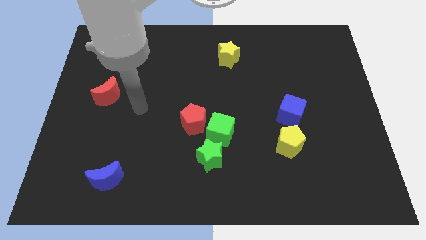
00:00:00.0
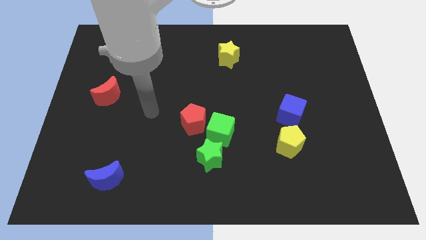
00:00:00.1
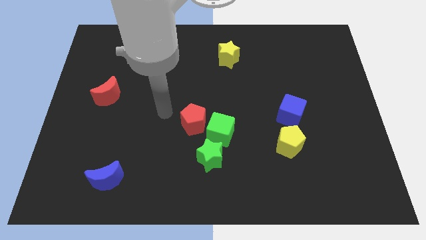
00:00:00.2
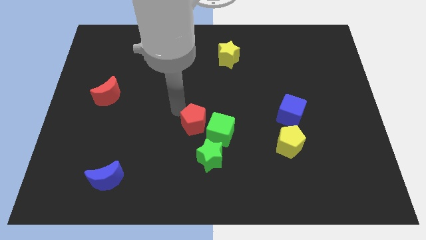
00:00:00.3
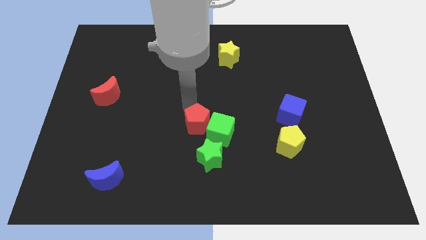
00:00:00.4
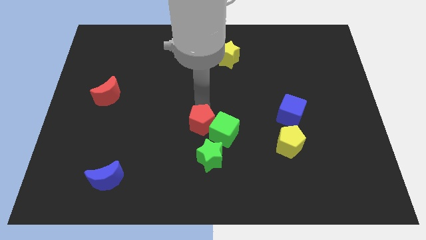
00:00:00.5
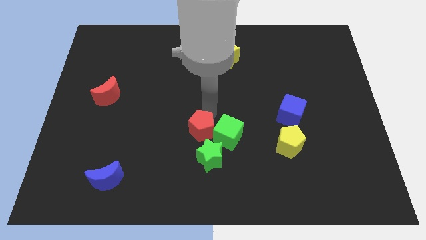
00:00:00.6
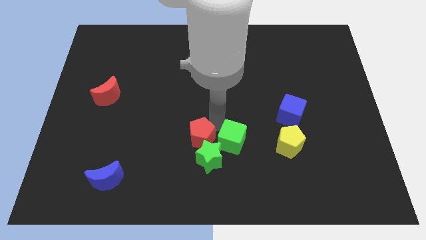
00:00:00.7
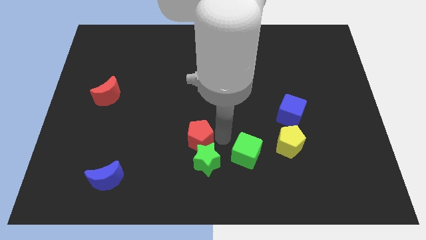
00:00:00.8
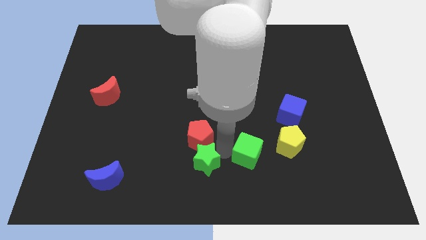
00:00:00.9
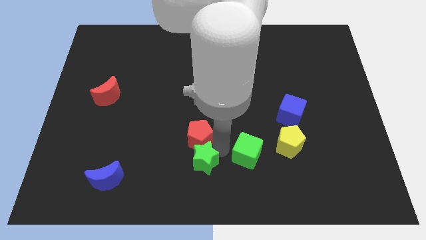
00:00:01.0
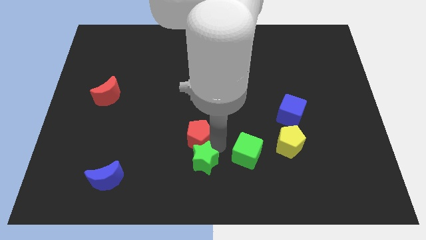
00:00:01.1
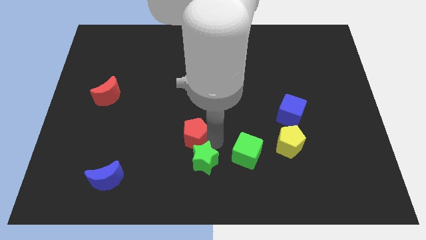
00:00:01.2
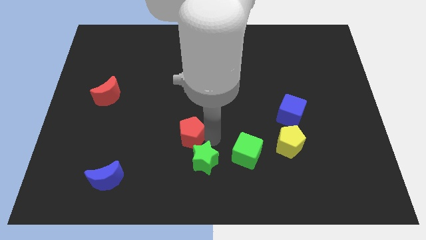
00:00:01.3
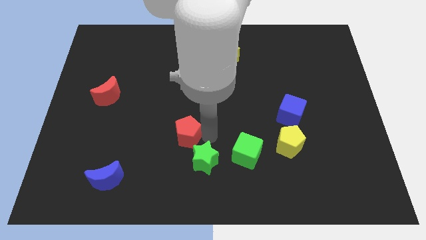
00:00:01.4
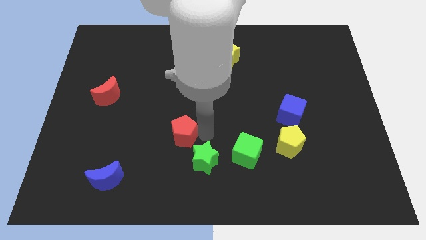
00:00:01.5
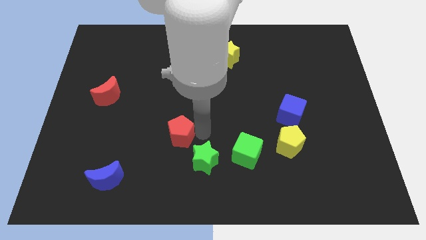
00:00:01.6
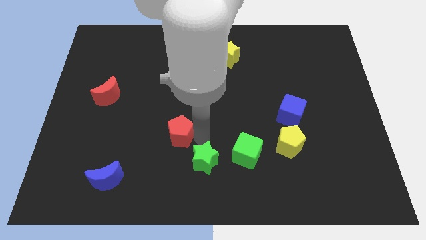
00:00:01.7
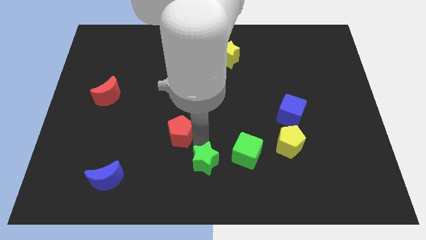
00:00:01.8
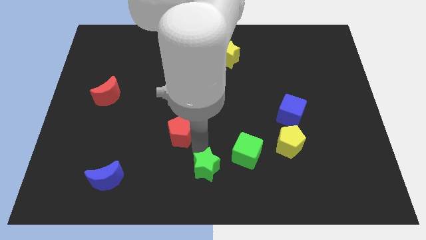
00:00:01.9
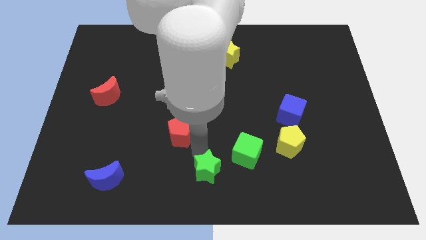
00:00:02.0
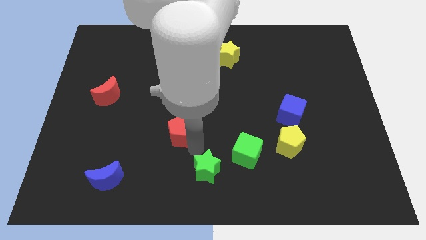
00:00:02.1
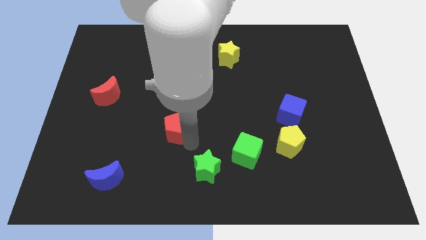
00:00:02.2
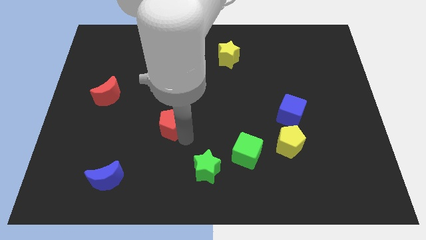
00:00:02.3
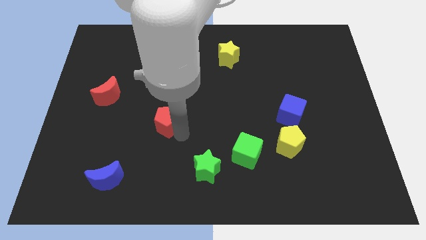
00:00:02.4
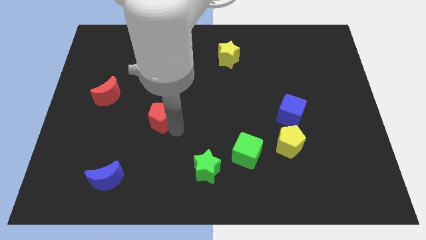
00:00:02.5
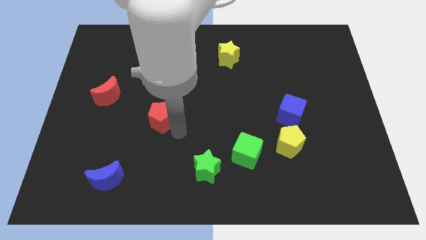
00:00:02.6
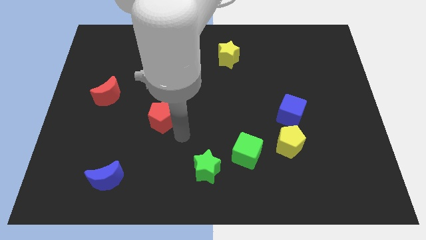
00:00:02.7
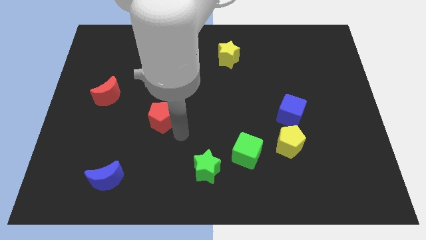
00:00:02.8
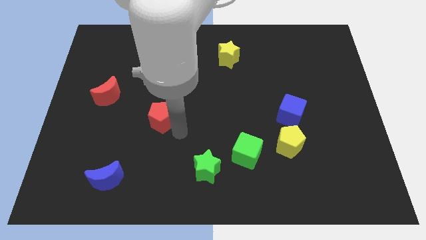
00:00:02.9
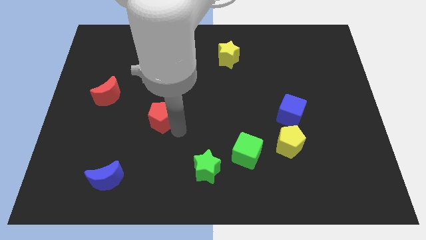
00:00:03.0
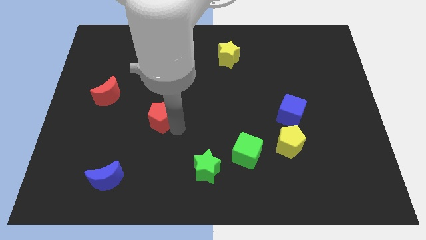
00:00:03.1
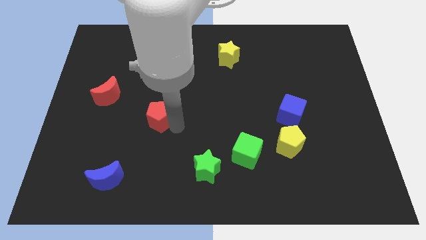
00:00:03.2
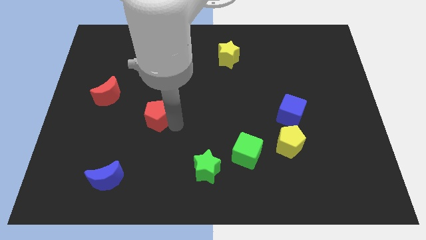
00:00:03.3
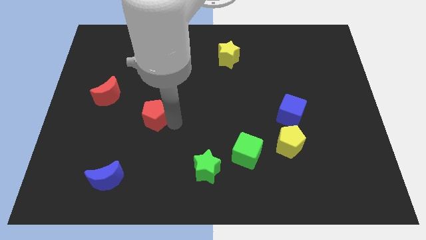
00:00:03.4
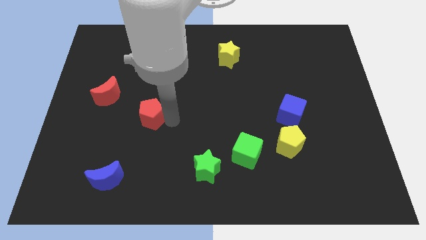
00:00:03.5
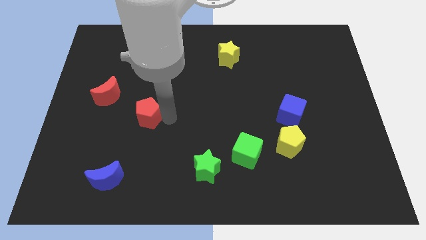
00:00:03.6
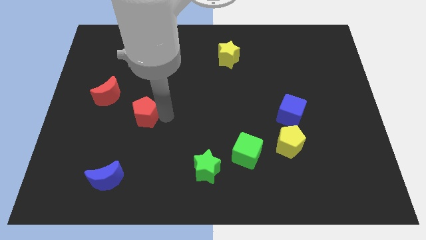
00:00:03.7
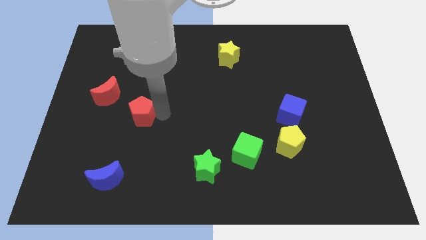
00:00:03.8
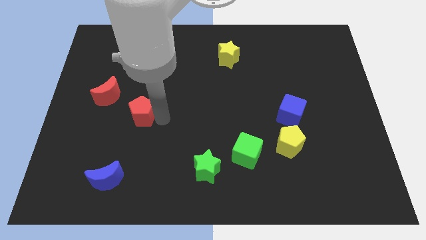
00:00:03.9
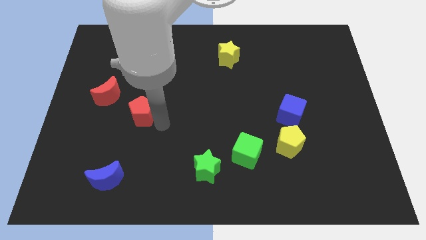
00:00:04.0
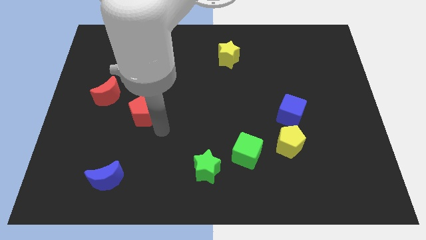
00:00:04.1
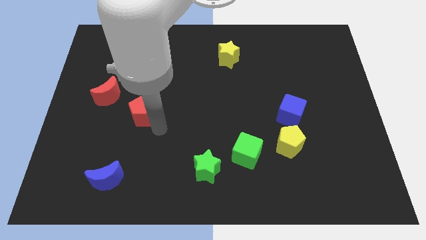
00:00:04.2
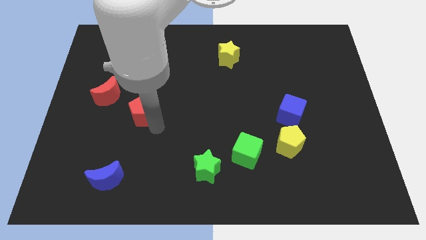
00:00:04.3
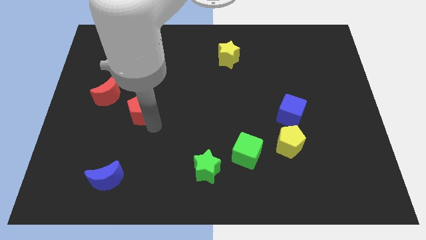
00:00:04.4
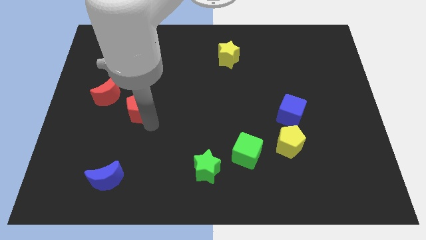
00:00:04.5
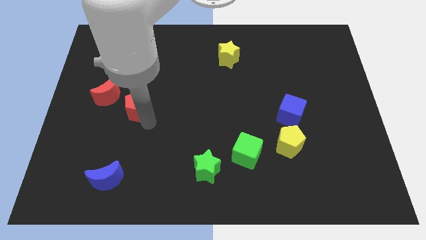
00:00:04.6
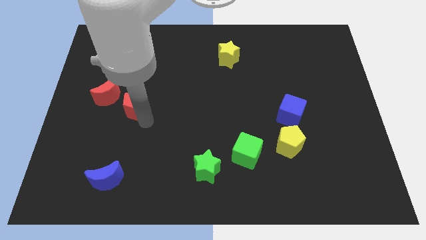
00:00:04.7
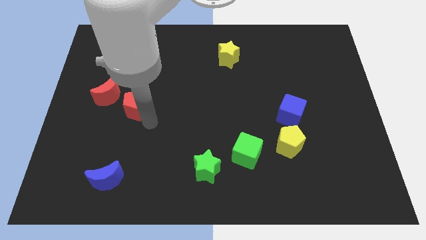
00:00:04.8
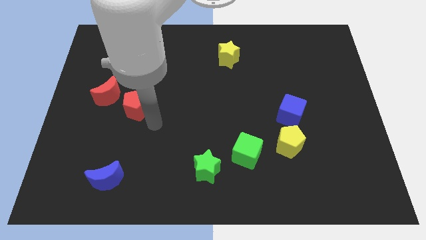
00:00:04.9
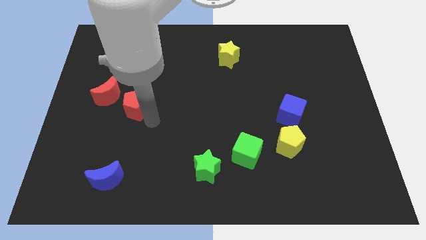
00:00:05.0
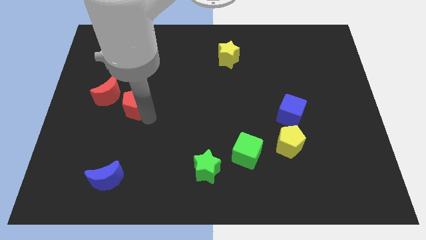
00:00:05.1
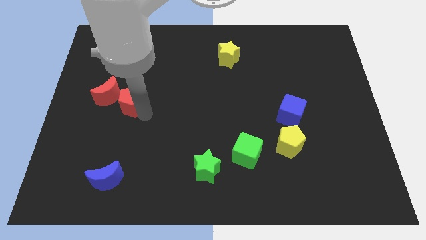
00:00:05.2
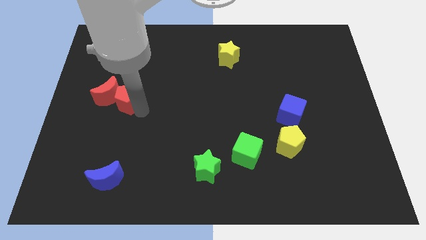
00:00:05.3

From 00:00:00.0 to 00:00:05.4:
slide the red pentagon next to the red moon

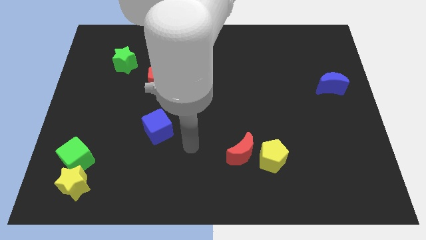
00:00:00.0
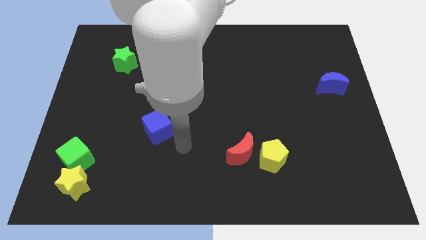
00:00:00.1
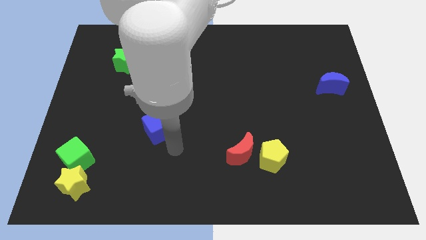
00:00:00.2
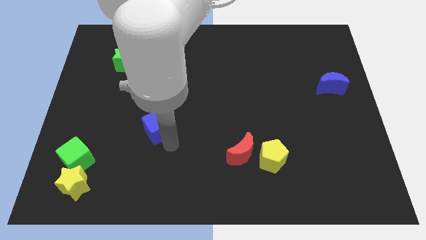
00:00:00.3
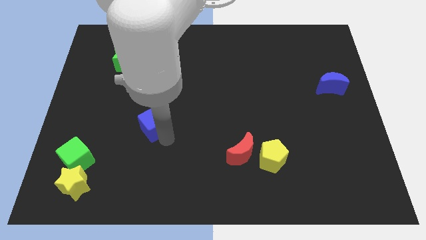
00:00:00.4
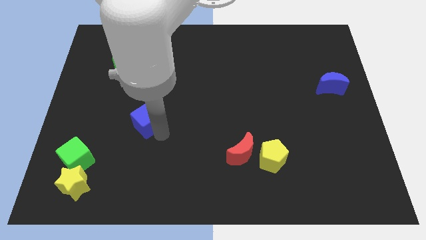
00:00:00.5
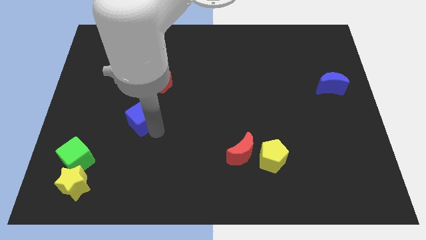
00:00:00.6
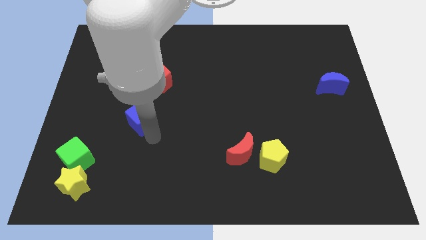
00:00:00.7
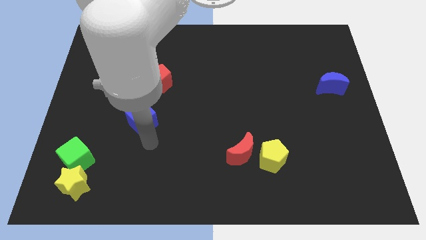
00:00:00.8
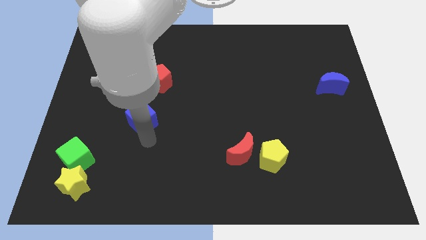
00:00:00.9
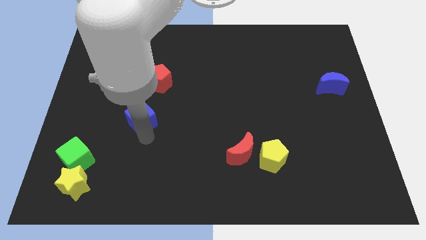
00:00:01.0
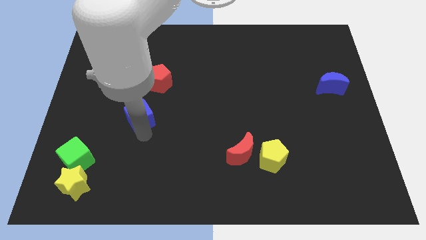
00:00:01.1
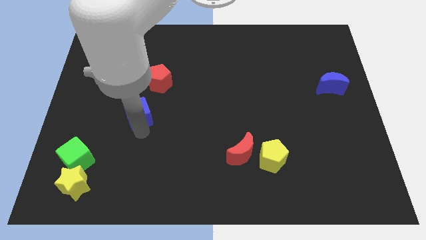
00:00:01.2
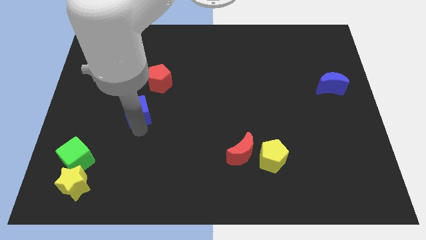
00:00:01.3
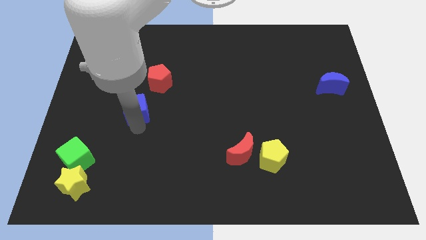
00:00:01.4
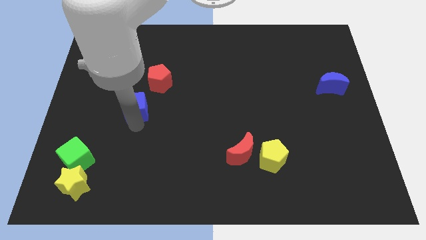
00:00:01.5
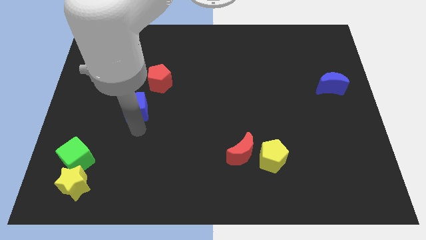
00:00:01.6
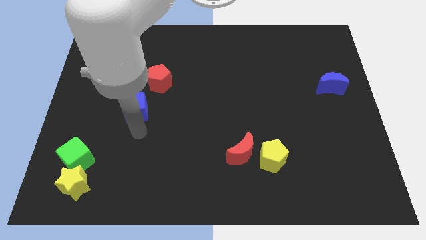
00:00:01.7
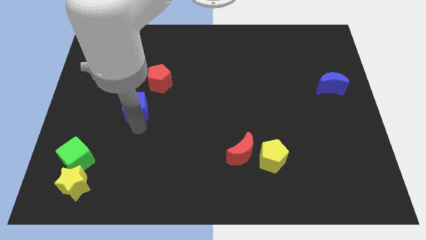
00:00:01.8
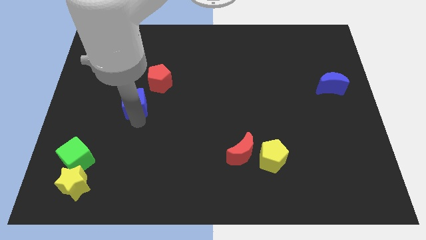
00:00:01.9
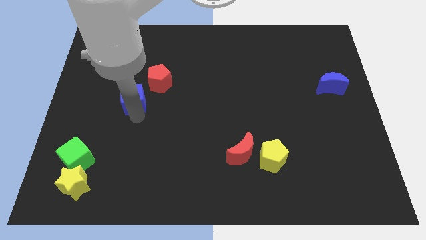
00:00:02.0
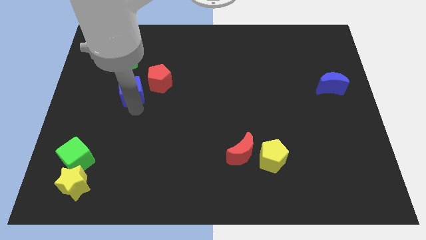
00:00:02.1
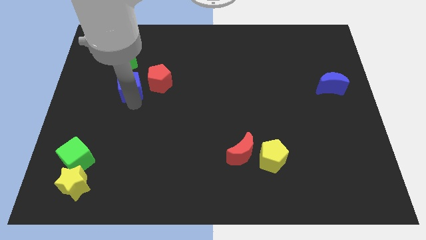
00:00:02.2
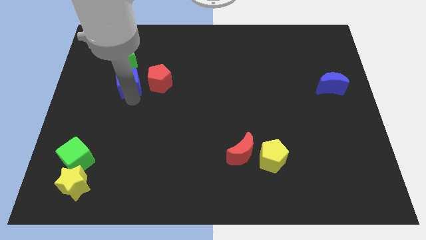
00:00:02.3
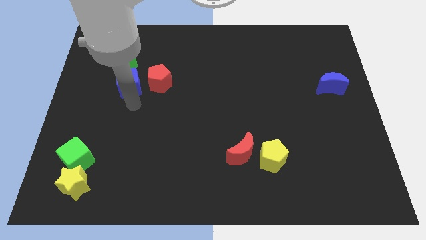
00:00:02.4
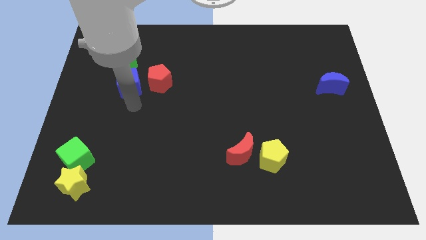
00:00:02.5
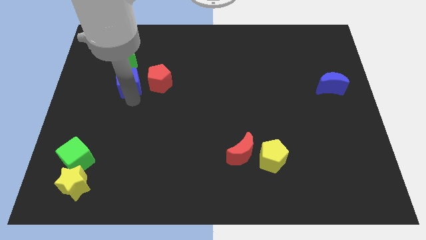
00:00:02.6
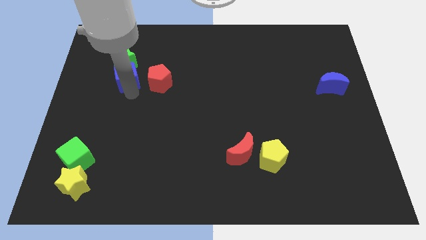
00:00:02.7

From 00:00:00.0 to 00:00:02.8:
slide the blue cube towards the green star
